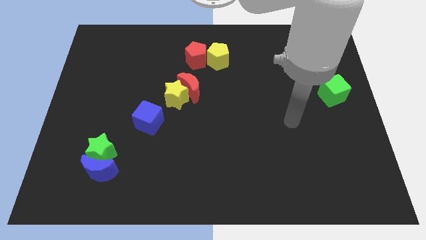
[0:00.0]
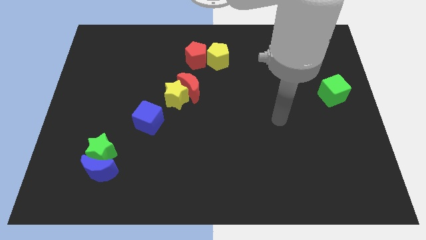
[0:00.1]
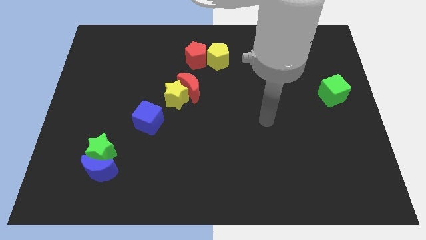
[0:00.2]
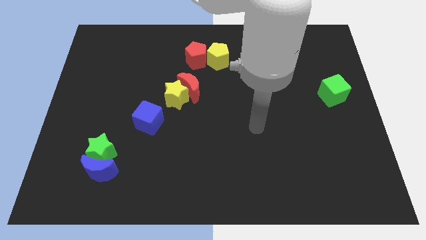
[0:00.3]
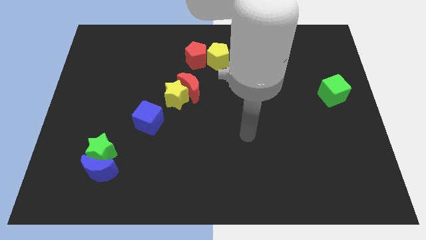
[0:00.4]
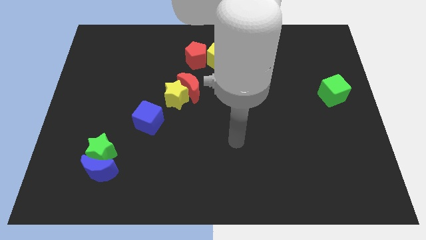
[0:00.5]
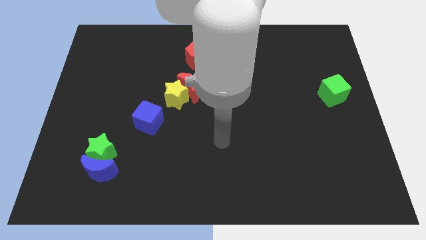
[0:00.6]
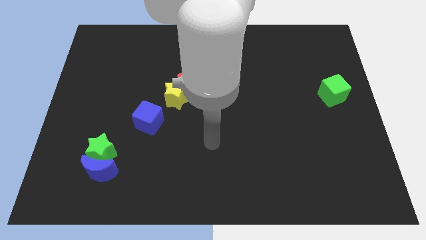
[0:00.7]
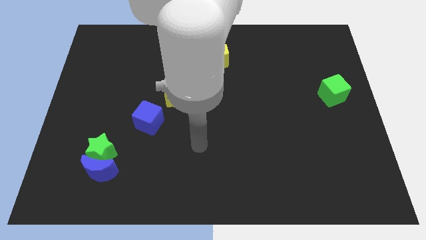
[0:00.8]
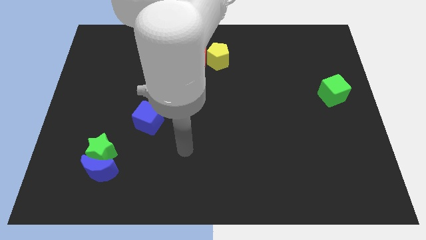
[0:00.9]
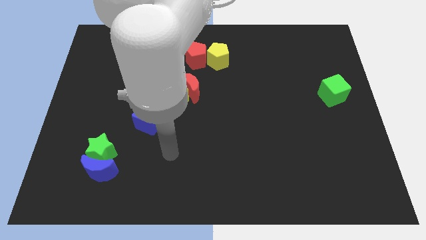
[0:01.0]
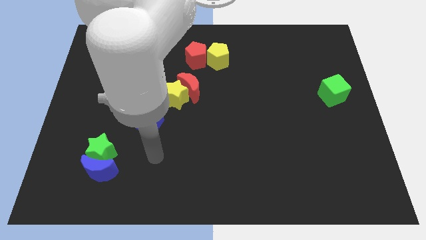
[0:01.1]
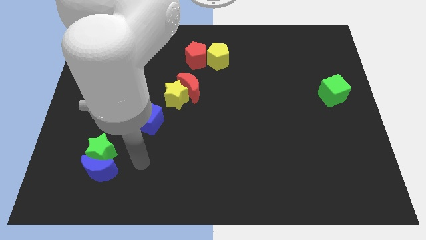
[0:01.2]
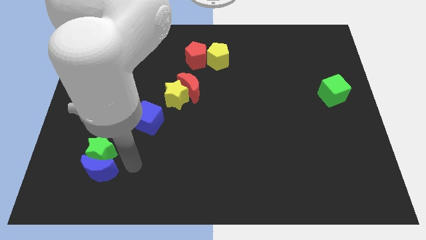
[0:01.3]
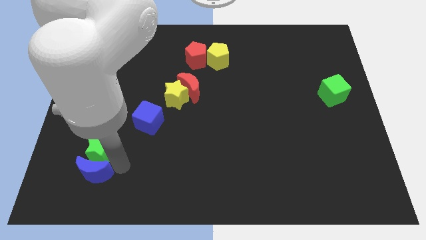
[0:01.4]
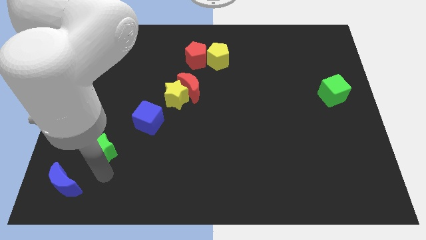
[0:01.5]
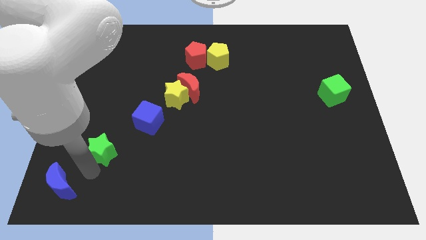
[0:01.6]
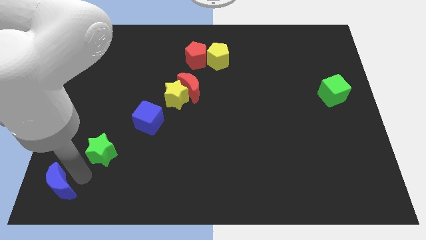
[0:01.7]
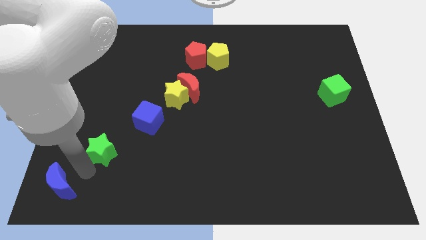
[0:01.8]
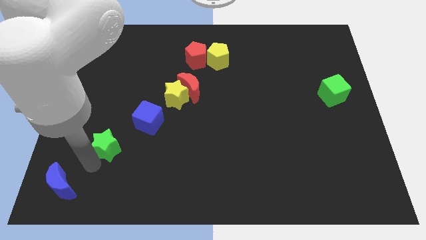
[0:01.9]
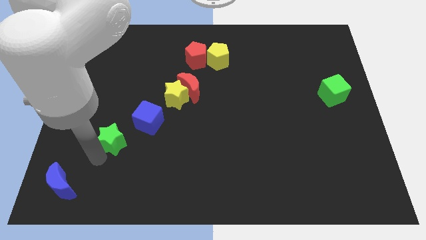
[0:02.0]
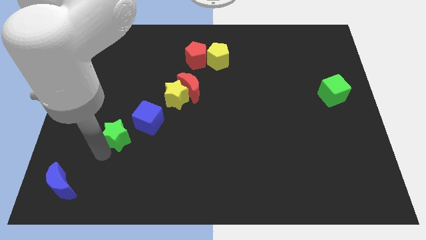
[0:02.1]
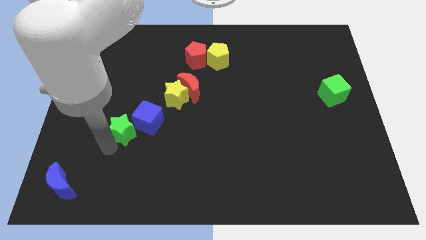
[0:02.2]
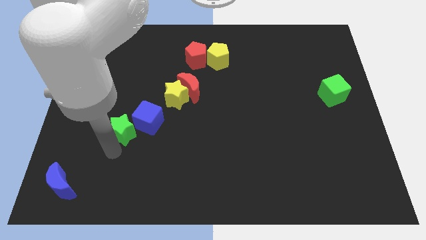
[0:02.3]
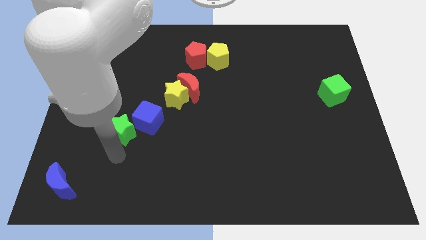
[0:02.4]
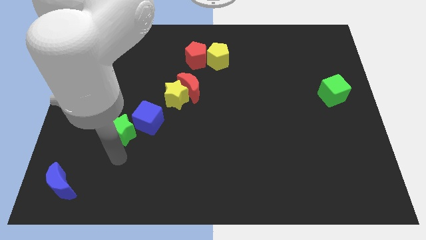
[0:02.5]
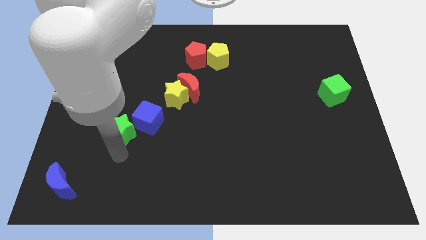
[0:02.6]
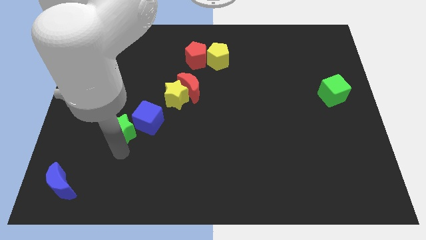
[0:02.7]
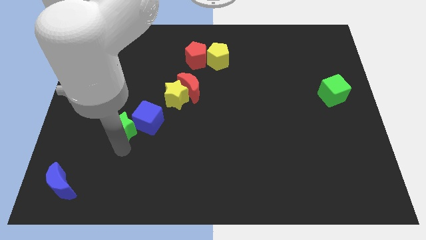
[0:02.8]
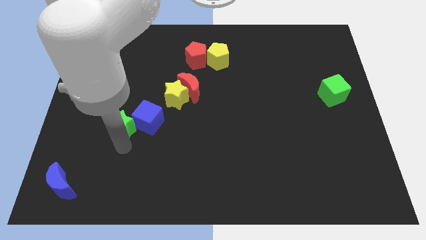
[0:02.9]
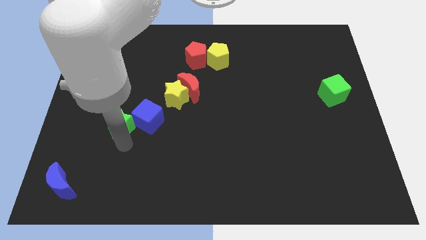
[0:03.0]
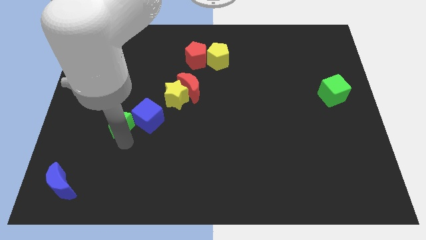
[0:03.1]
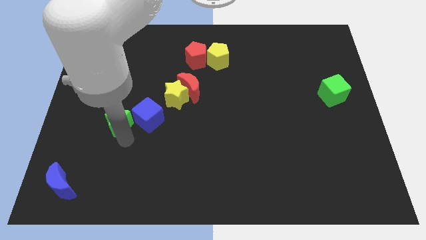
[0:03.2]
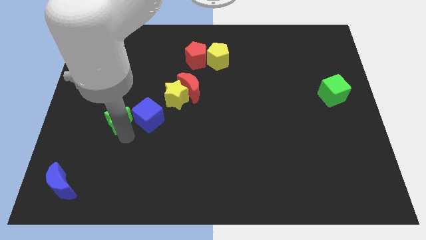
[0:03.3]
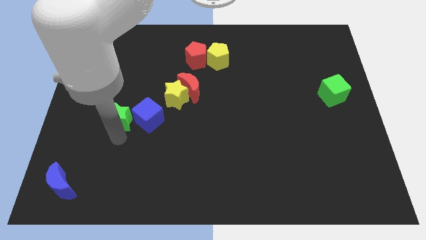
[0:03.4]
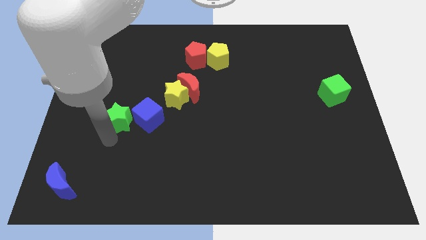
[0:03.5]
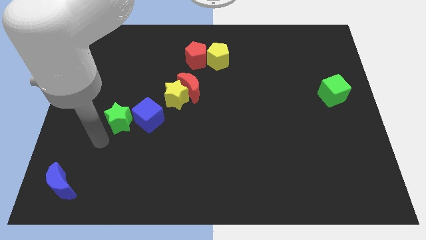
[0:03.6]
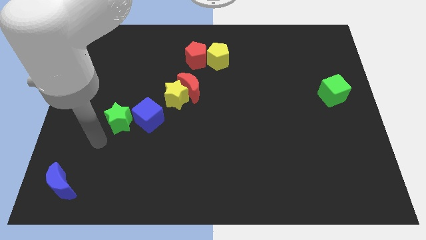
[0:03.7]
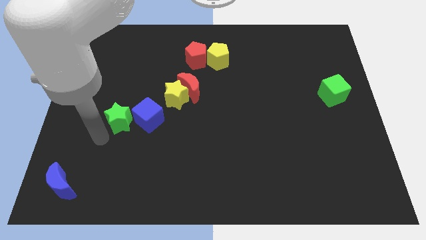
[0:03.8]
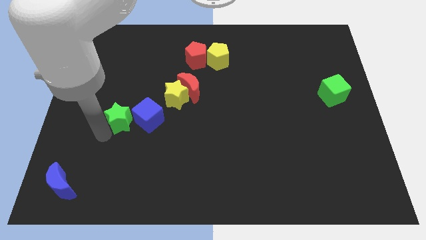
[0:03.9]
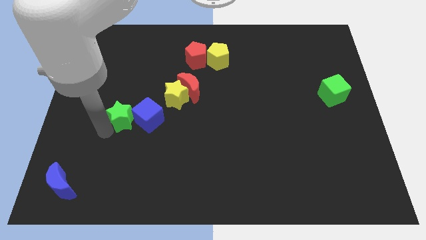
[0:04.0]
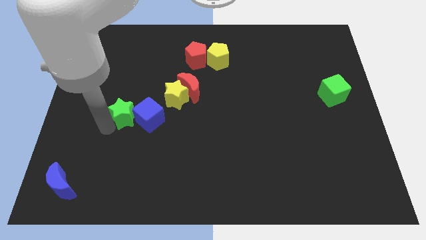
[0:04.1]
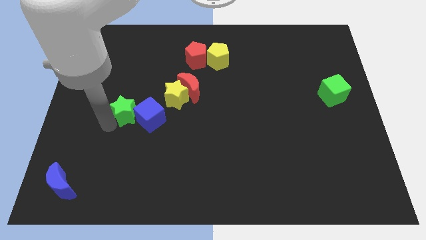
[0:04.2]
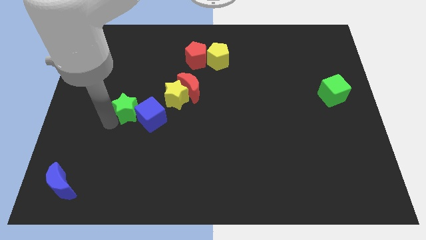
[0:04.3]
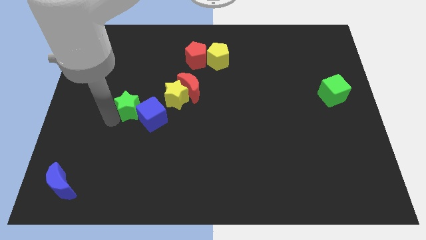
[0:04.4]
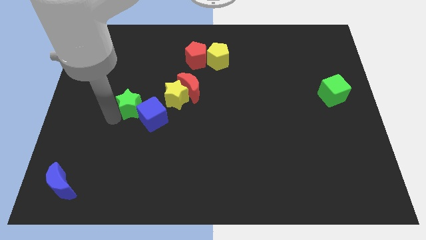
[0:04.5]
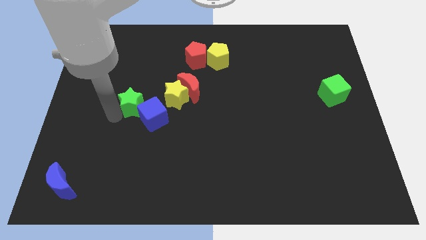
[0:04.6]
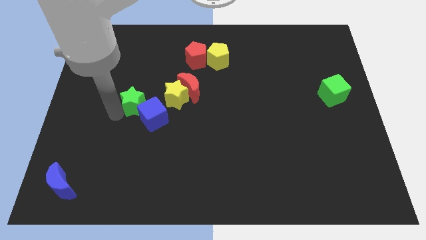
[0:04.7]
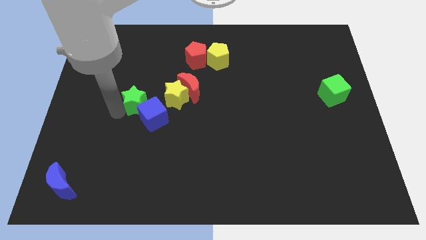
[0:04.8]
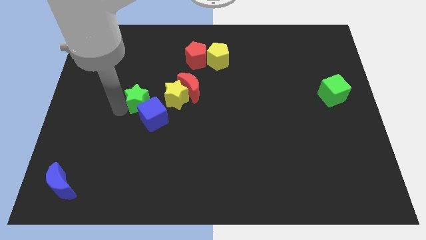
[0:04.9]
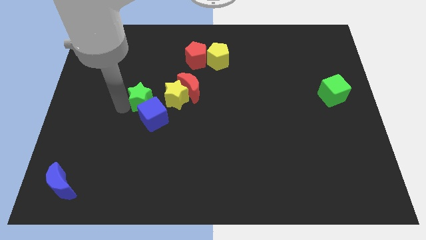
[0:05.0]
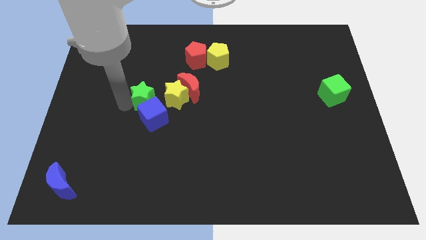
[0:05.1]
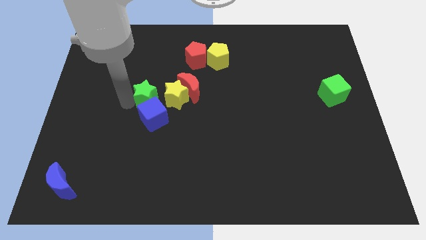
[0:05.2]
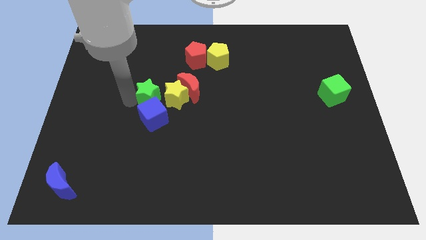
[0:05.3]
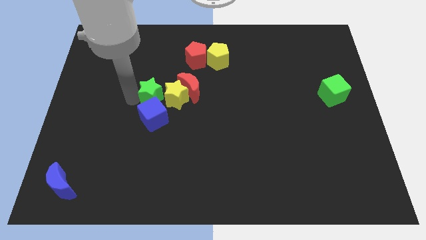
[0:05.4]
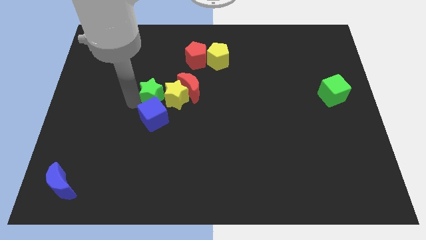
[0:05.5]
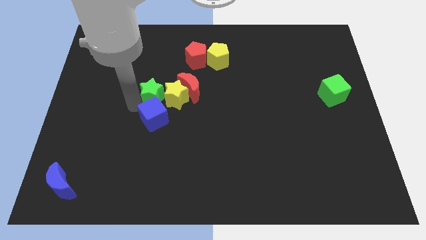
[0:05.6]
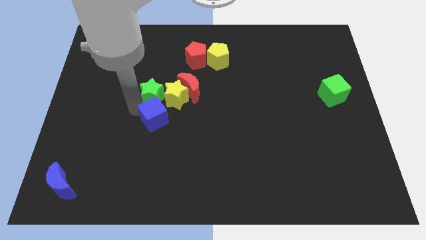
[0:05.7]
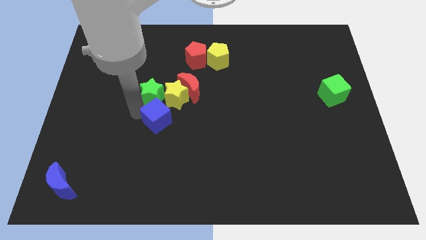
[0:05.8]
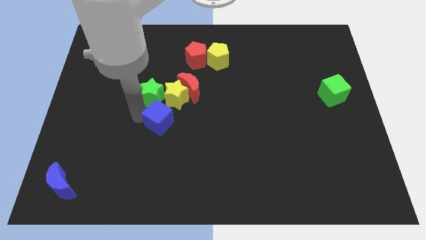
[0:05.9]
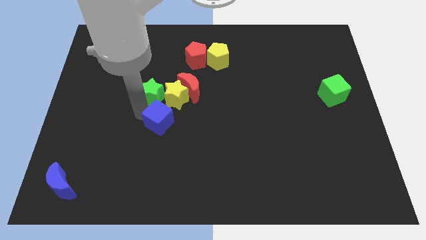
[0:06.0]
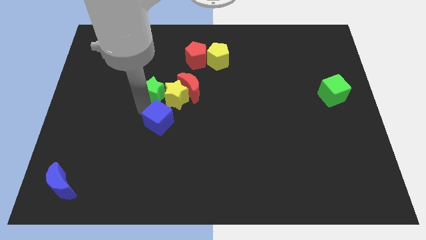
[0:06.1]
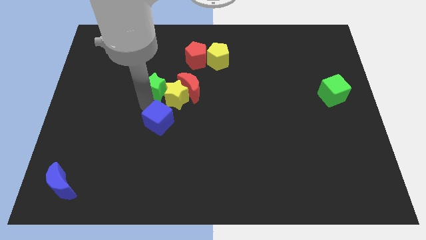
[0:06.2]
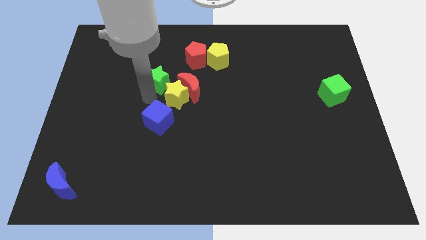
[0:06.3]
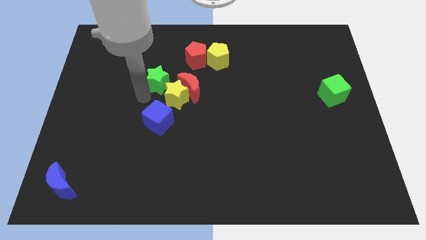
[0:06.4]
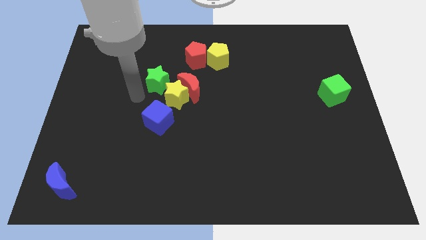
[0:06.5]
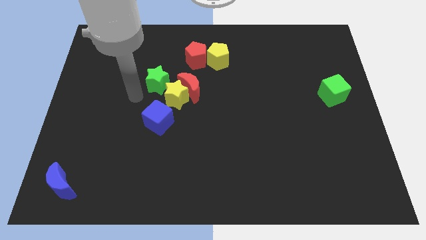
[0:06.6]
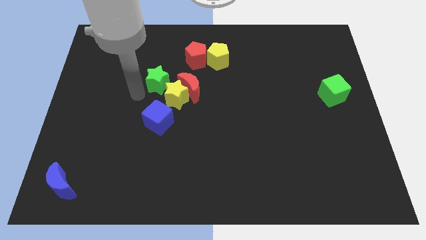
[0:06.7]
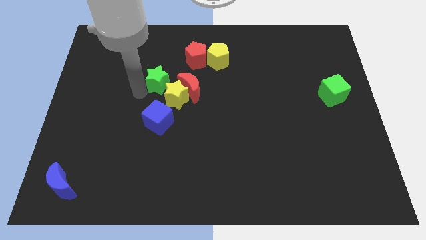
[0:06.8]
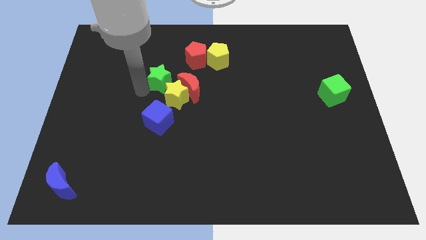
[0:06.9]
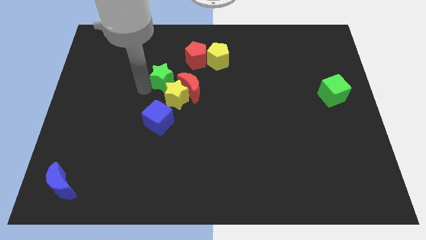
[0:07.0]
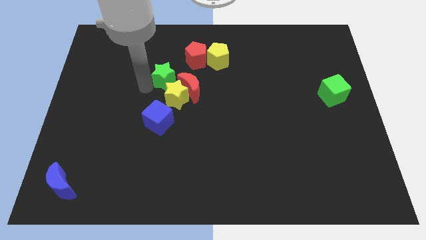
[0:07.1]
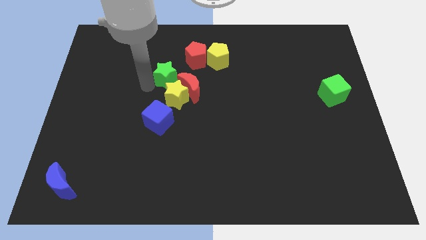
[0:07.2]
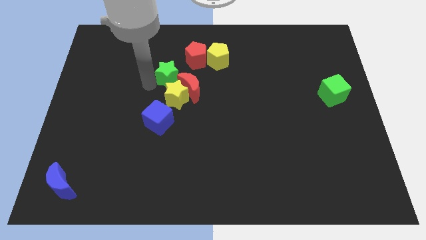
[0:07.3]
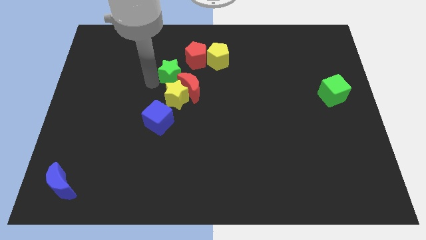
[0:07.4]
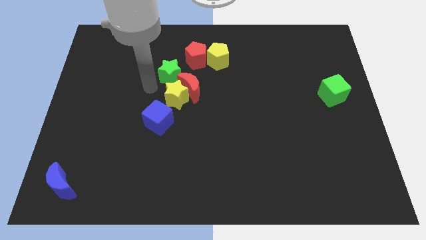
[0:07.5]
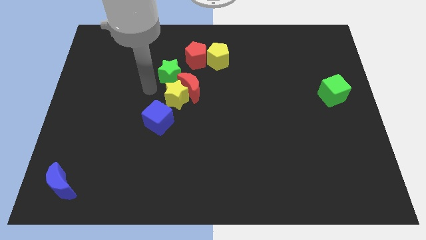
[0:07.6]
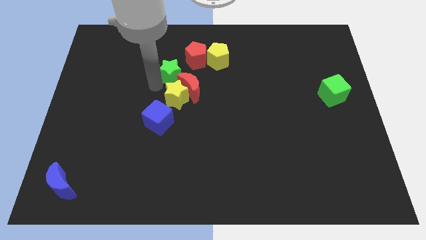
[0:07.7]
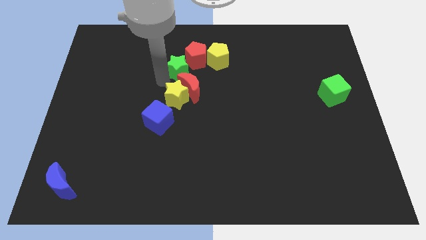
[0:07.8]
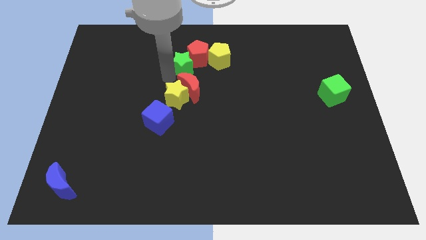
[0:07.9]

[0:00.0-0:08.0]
move the green star next to the red pentagon
